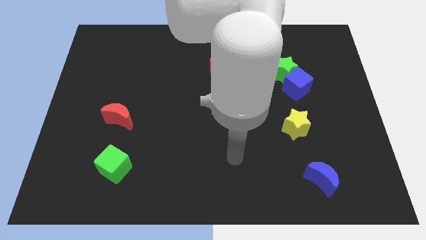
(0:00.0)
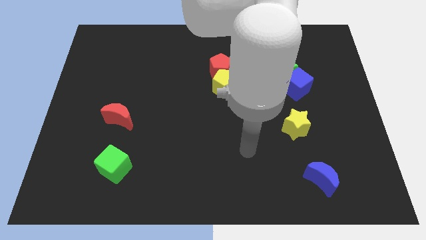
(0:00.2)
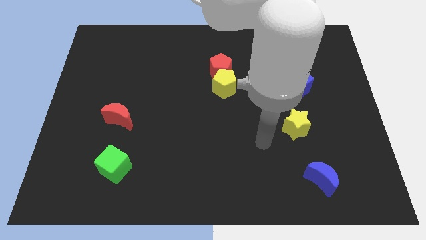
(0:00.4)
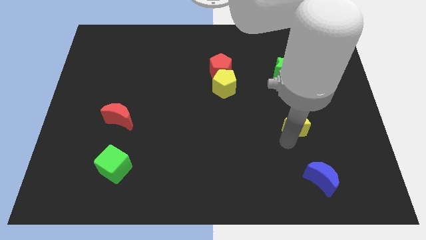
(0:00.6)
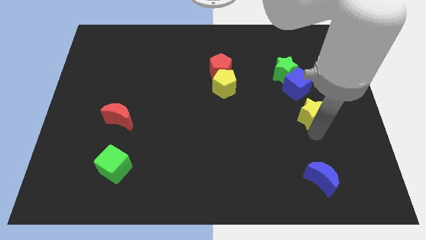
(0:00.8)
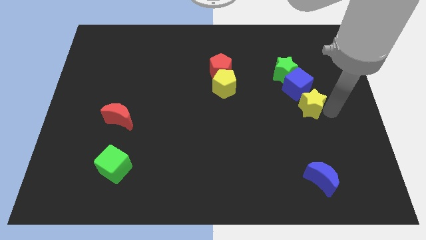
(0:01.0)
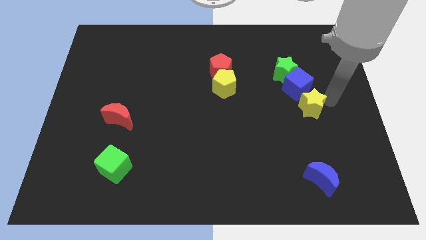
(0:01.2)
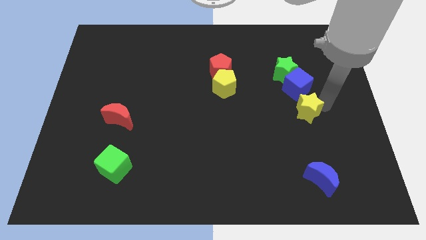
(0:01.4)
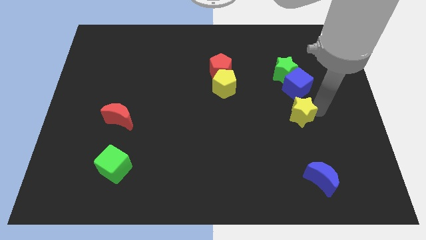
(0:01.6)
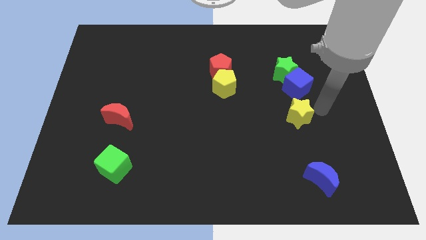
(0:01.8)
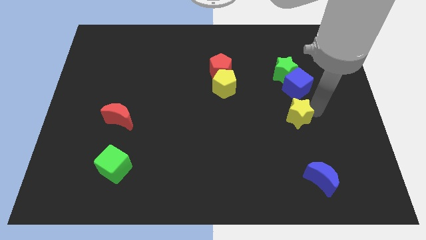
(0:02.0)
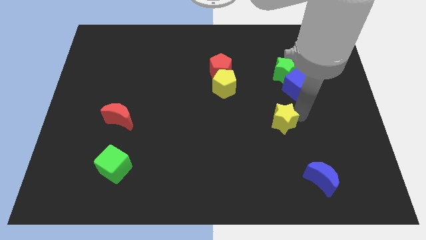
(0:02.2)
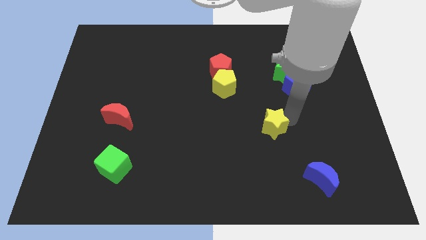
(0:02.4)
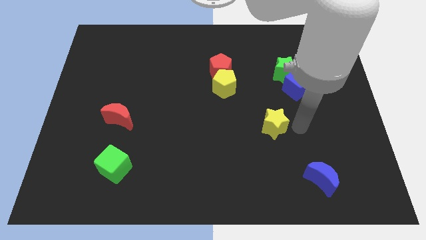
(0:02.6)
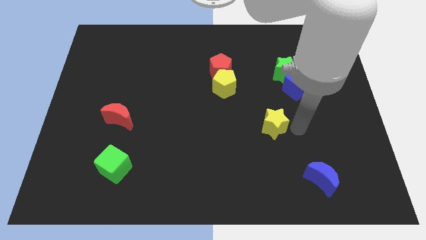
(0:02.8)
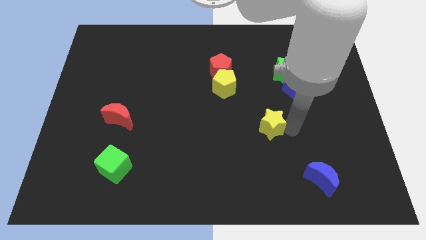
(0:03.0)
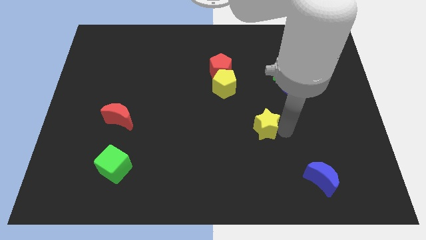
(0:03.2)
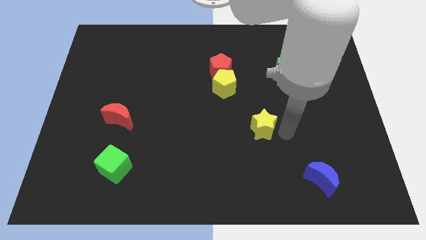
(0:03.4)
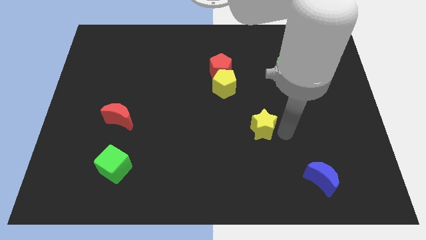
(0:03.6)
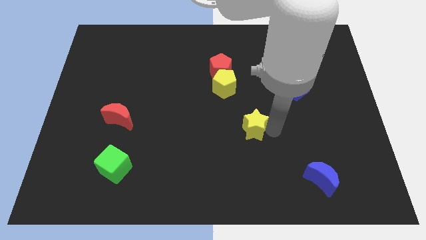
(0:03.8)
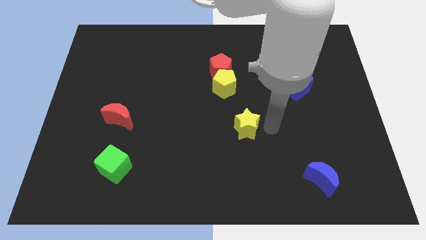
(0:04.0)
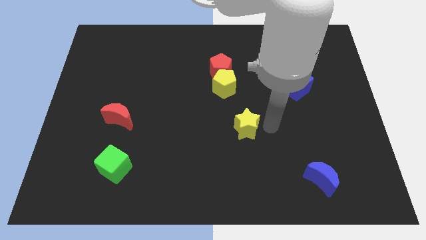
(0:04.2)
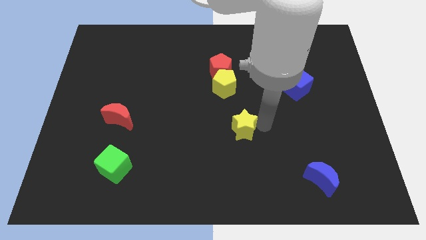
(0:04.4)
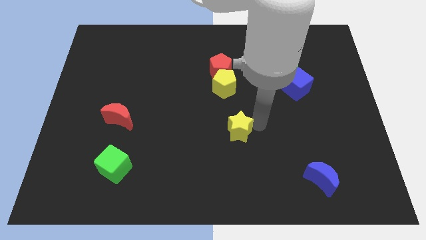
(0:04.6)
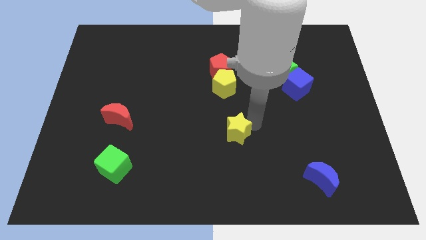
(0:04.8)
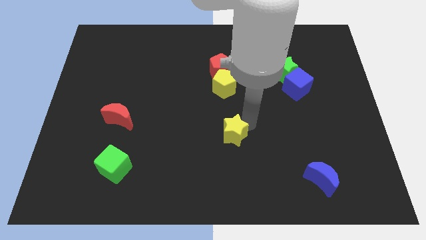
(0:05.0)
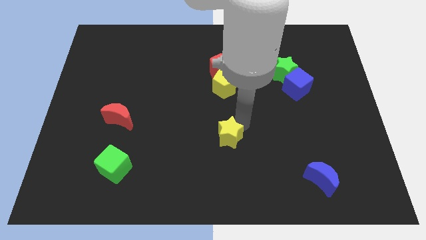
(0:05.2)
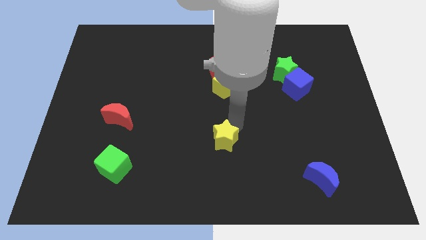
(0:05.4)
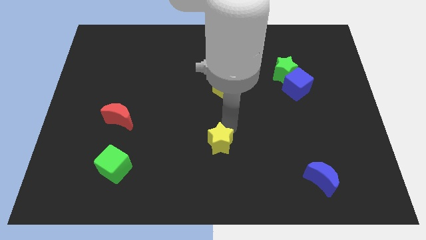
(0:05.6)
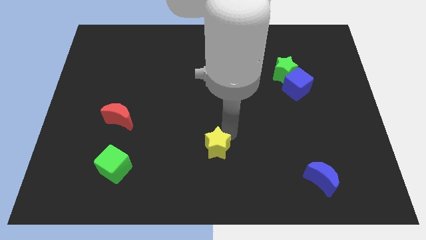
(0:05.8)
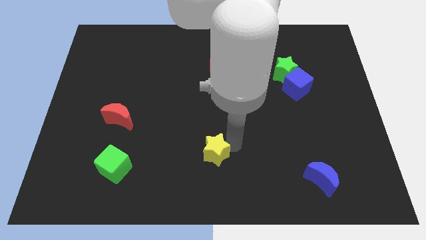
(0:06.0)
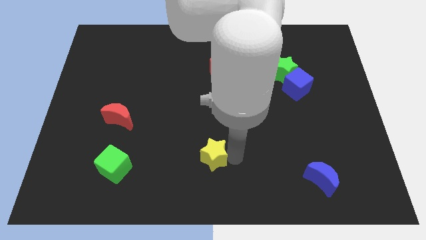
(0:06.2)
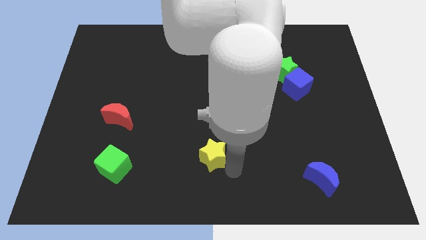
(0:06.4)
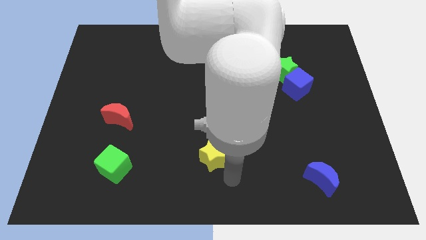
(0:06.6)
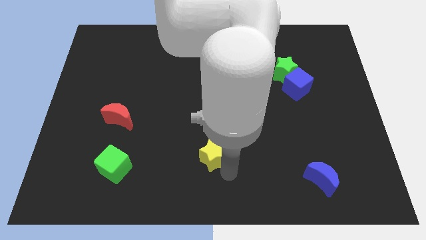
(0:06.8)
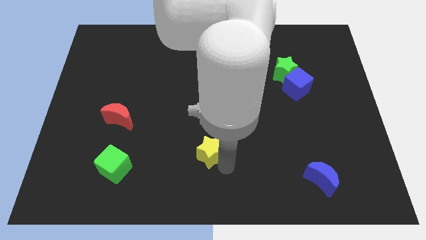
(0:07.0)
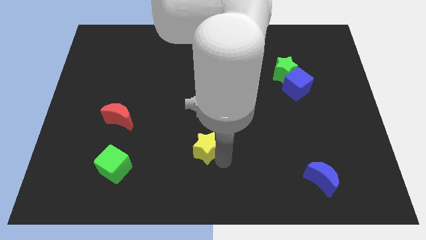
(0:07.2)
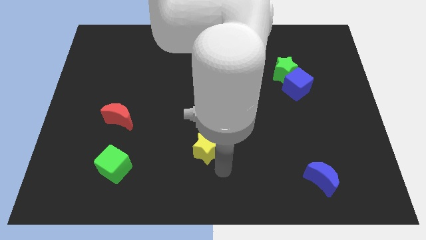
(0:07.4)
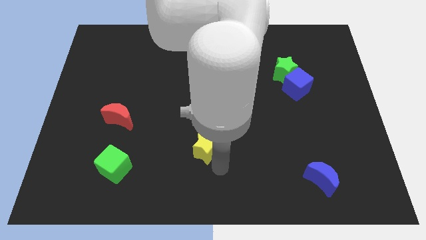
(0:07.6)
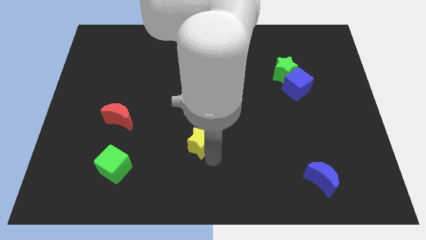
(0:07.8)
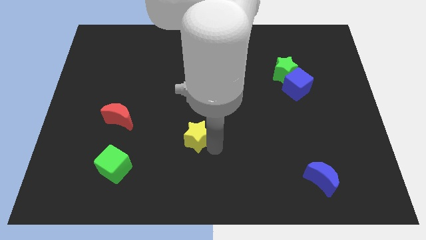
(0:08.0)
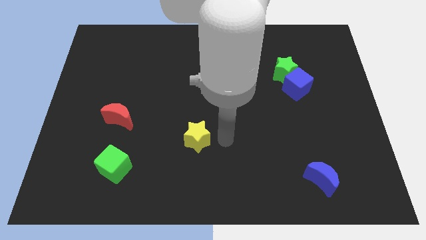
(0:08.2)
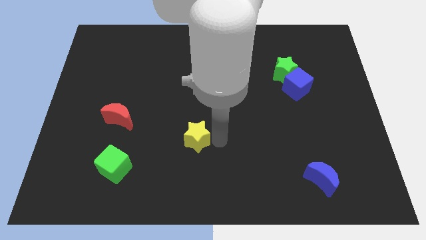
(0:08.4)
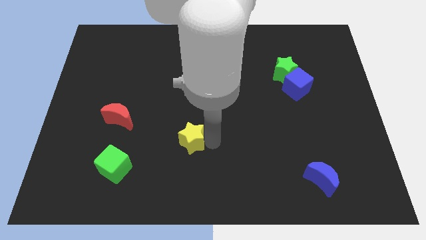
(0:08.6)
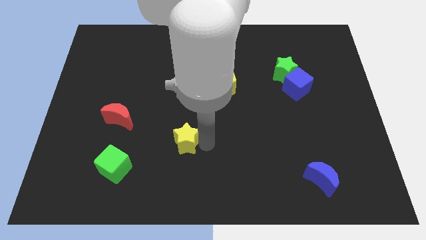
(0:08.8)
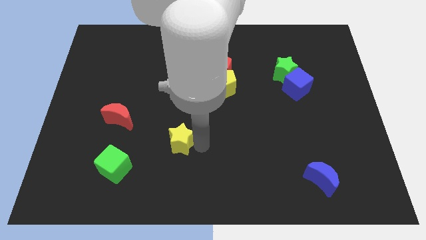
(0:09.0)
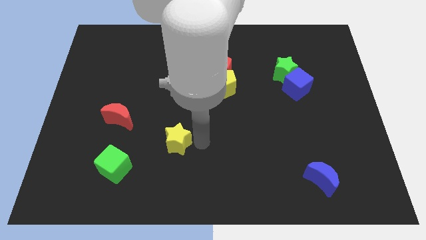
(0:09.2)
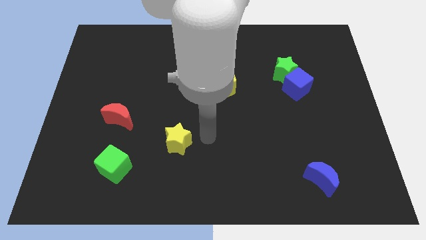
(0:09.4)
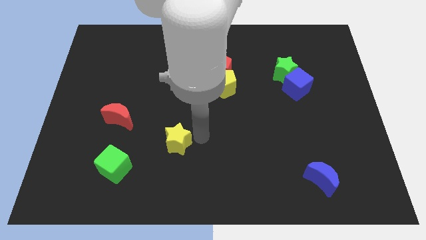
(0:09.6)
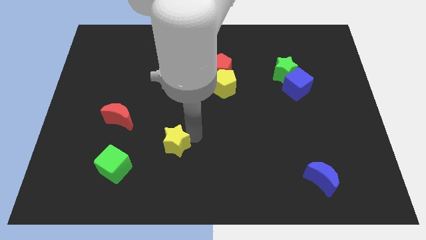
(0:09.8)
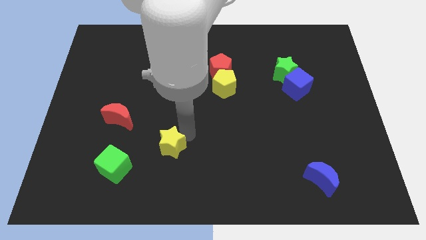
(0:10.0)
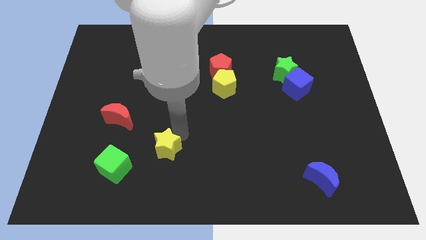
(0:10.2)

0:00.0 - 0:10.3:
push the yellow star diagonally up and to the right of the green cube

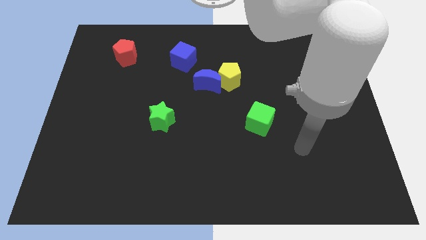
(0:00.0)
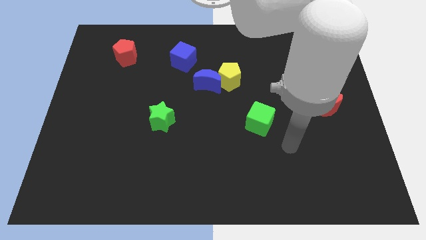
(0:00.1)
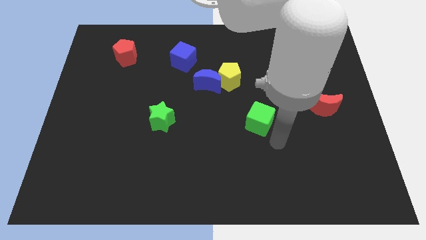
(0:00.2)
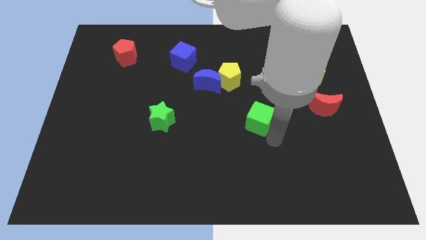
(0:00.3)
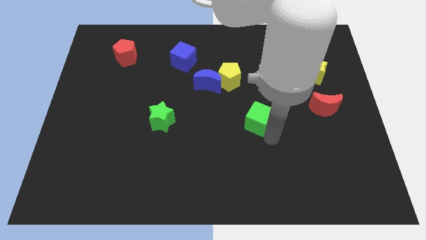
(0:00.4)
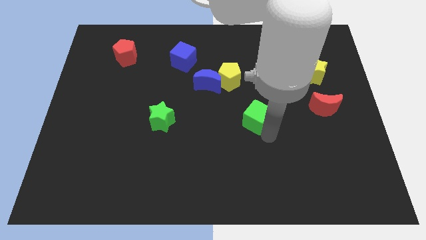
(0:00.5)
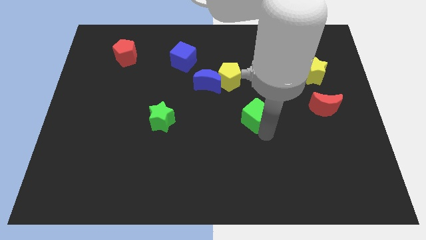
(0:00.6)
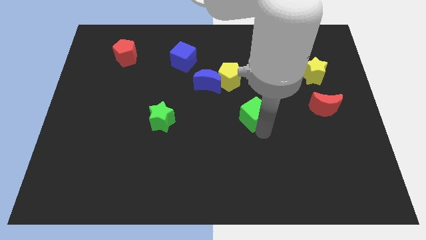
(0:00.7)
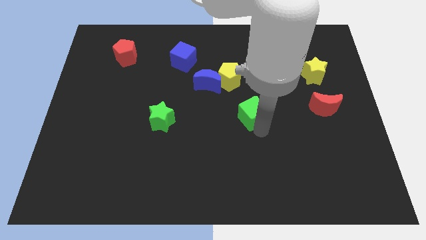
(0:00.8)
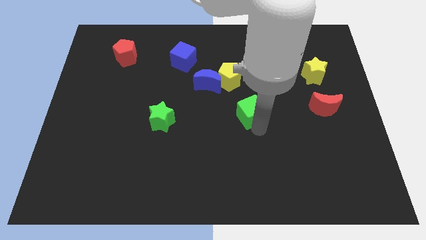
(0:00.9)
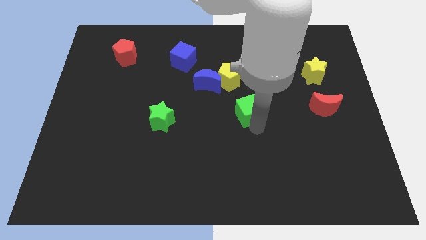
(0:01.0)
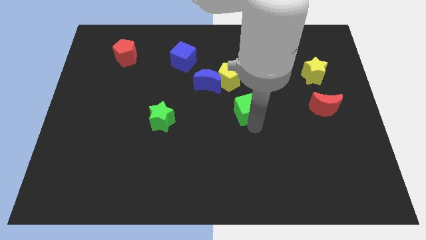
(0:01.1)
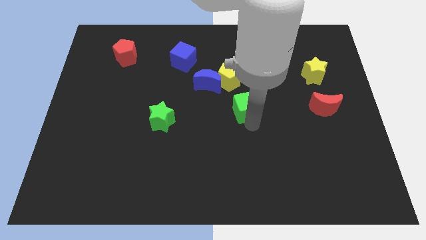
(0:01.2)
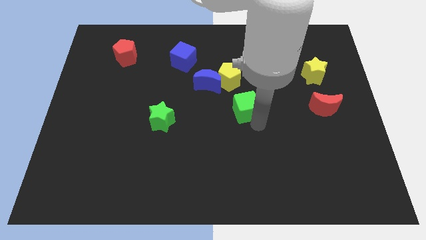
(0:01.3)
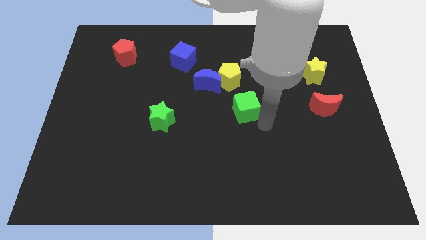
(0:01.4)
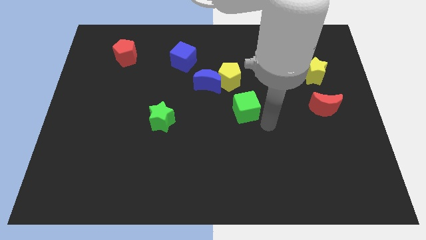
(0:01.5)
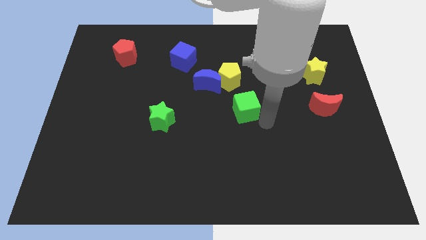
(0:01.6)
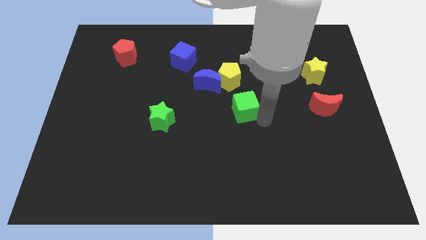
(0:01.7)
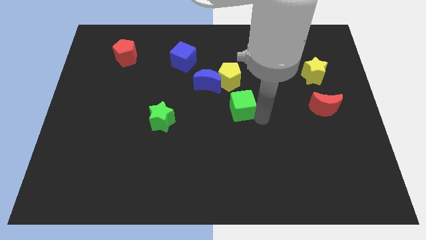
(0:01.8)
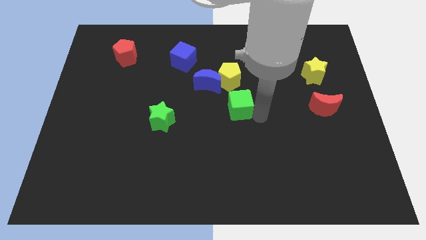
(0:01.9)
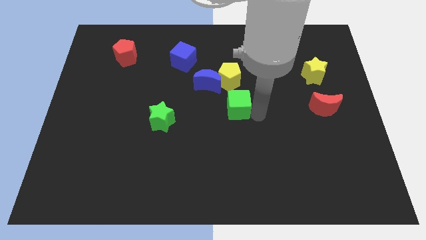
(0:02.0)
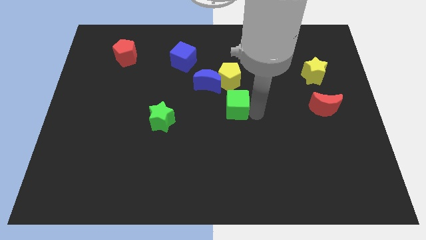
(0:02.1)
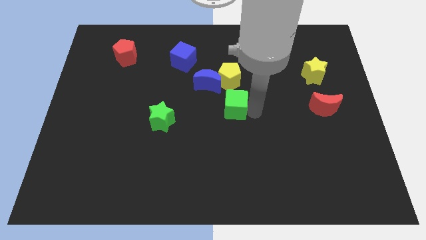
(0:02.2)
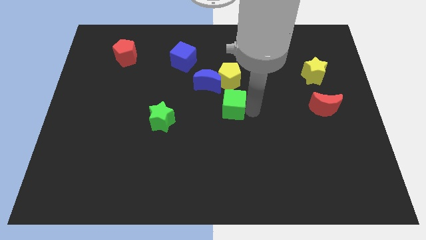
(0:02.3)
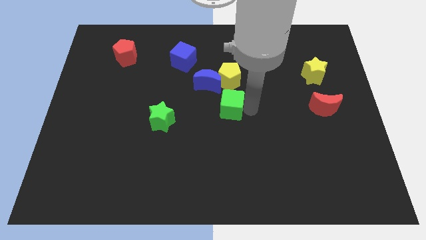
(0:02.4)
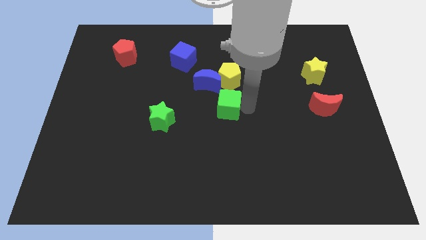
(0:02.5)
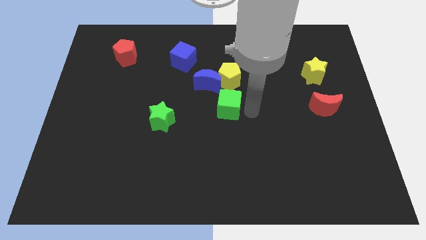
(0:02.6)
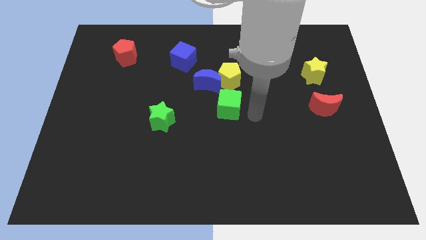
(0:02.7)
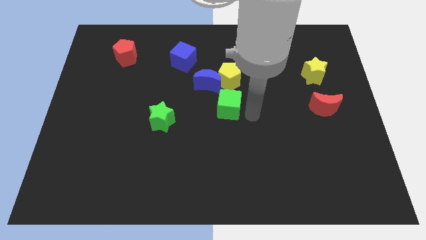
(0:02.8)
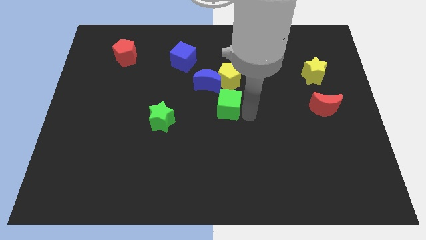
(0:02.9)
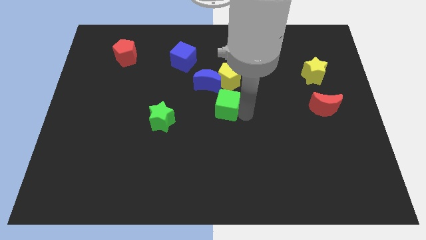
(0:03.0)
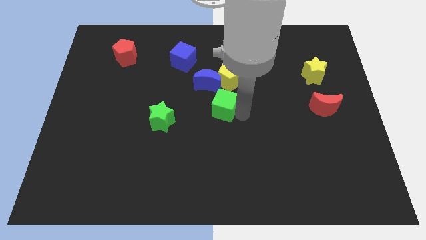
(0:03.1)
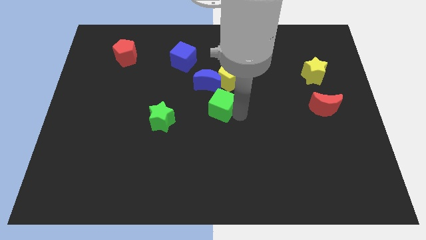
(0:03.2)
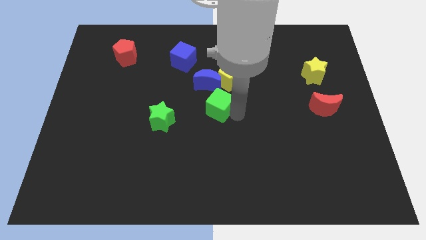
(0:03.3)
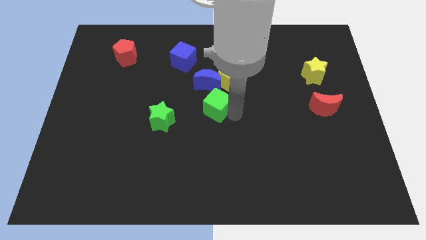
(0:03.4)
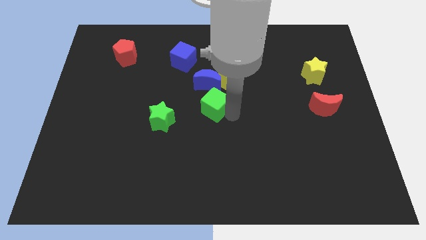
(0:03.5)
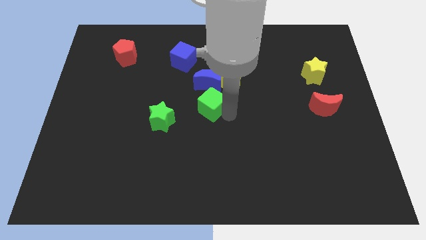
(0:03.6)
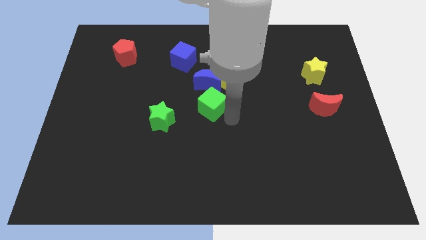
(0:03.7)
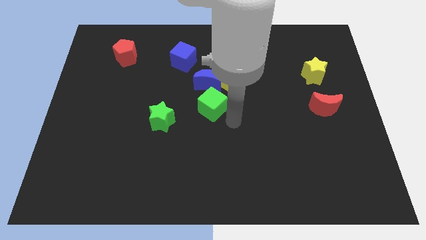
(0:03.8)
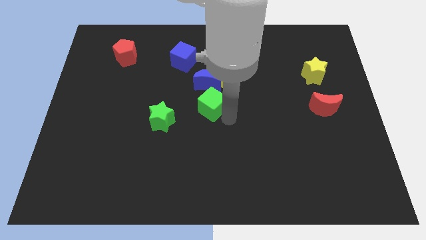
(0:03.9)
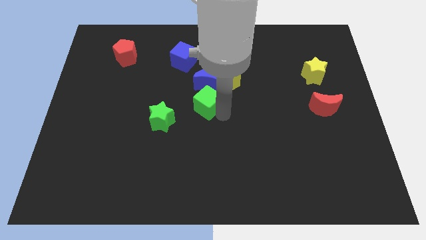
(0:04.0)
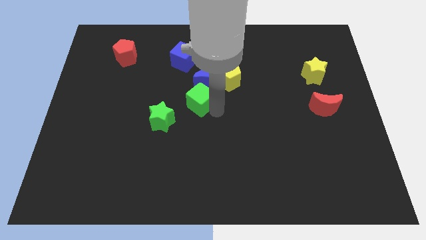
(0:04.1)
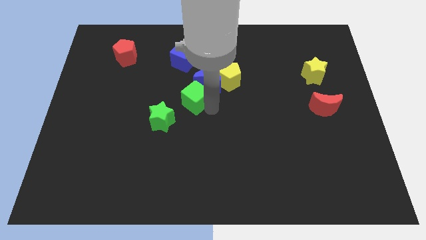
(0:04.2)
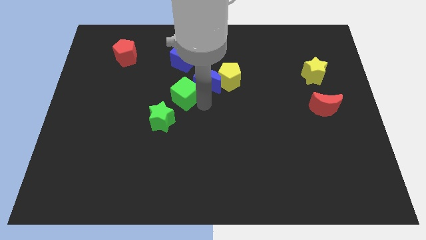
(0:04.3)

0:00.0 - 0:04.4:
put the green cube to the top side of the green star
